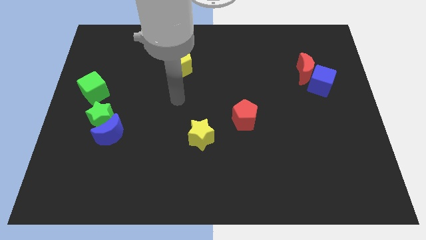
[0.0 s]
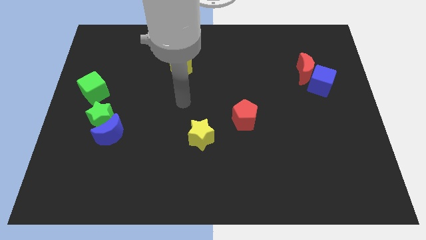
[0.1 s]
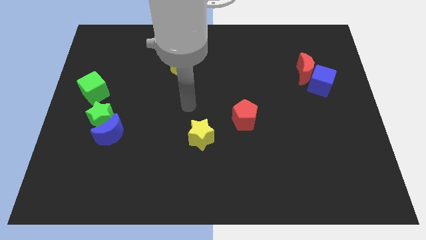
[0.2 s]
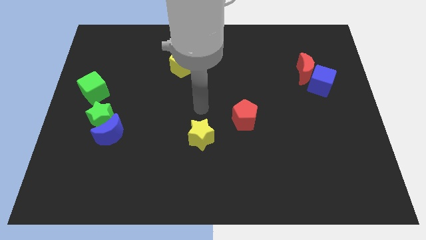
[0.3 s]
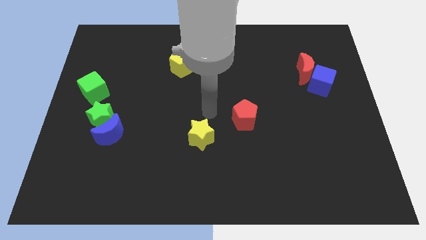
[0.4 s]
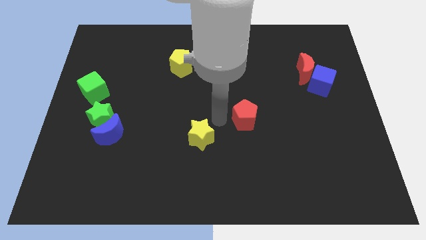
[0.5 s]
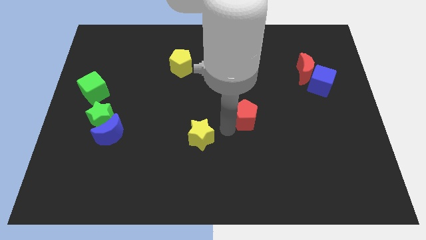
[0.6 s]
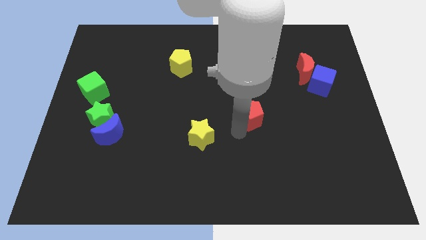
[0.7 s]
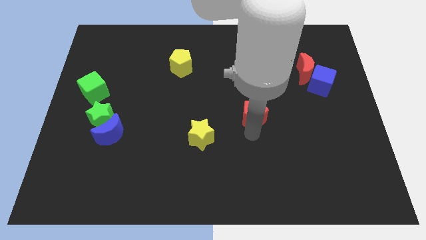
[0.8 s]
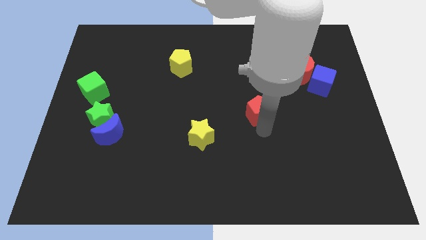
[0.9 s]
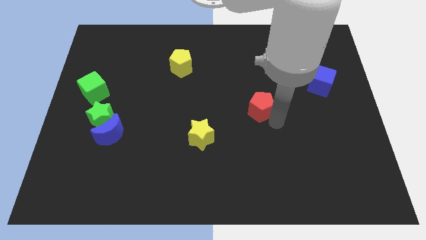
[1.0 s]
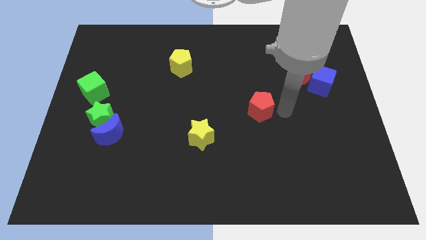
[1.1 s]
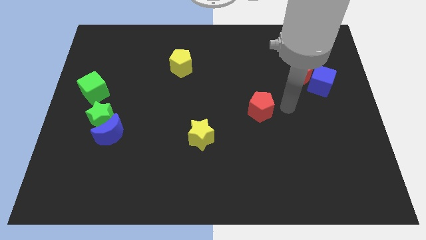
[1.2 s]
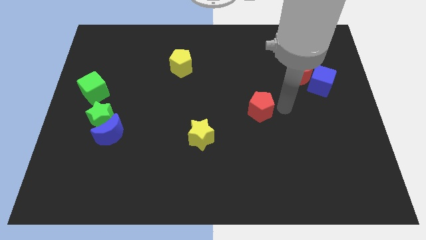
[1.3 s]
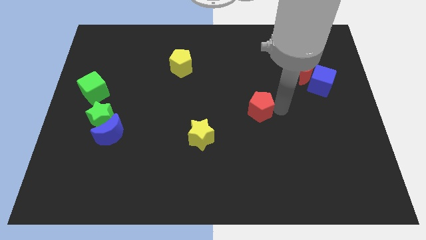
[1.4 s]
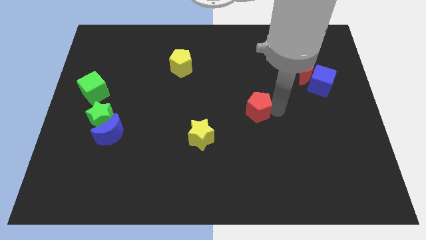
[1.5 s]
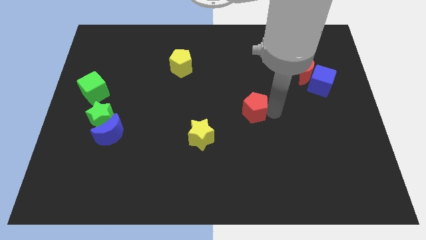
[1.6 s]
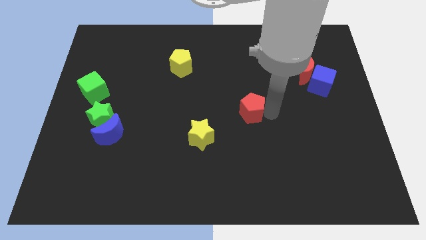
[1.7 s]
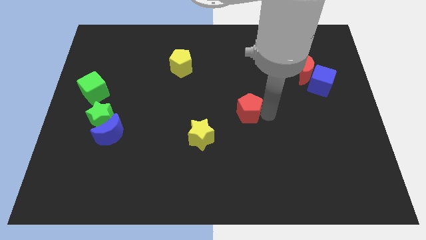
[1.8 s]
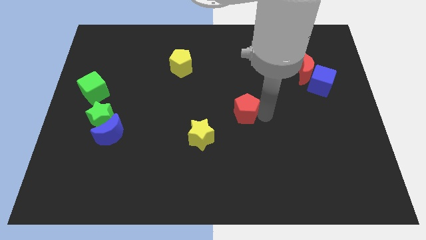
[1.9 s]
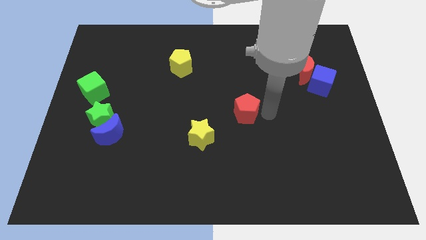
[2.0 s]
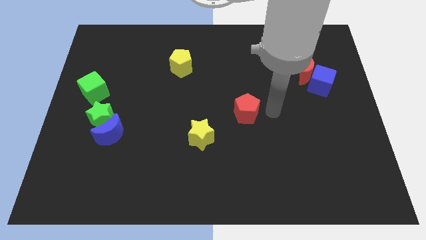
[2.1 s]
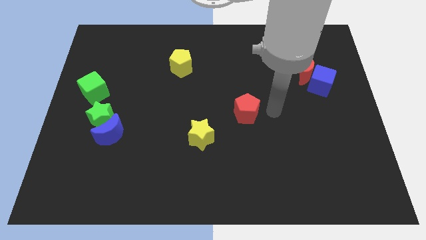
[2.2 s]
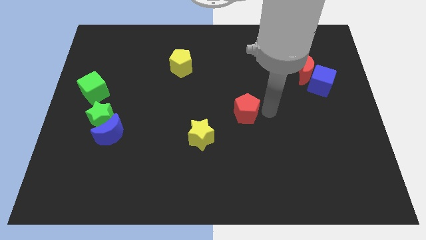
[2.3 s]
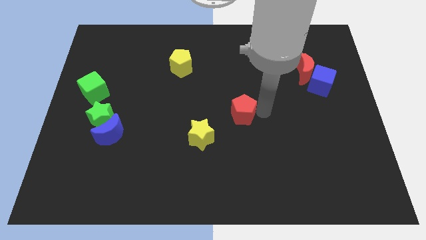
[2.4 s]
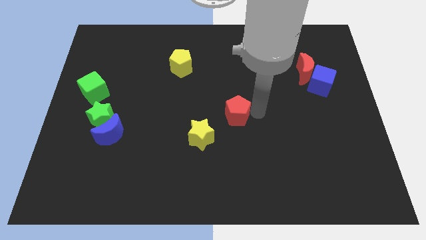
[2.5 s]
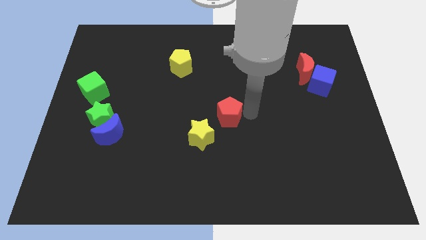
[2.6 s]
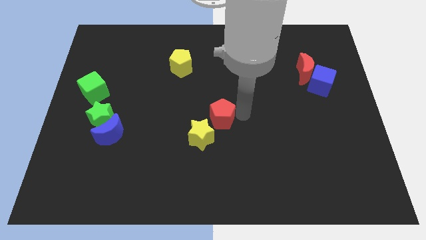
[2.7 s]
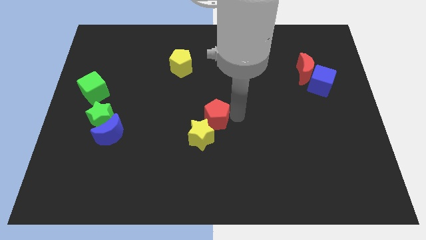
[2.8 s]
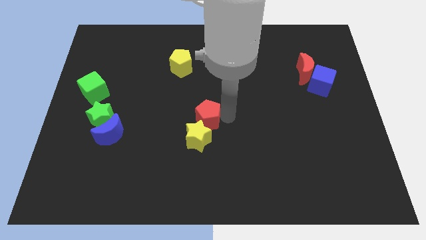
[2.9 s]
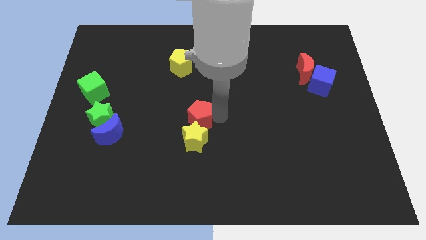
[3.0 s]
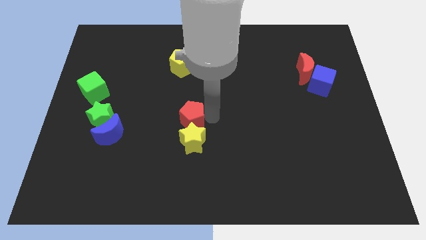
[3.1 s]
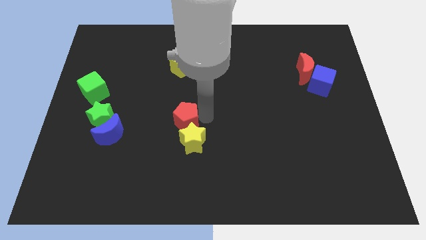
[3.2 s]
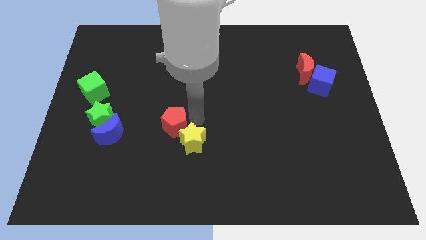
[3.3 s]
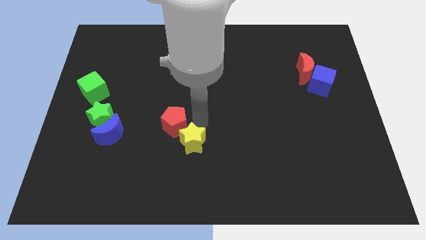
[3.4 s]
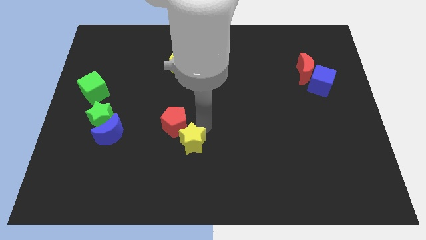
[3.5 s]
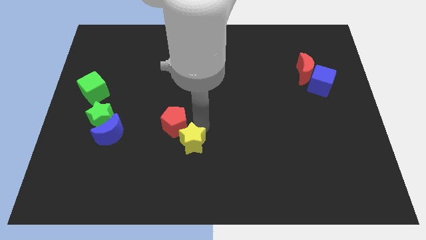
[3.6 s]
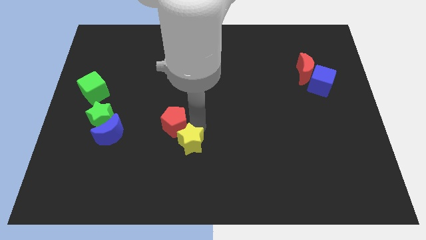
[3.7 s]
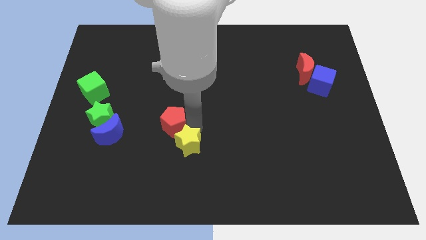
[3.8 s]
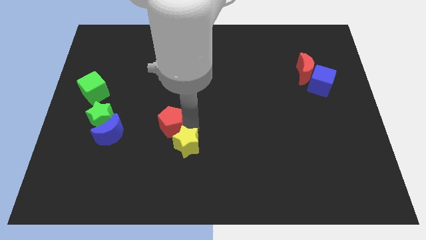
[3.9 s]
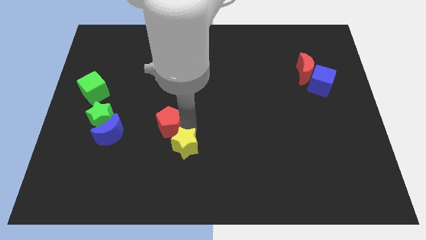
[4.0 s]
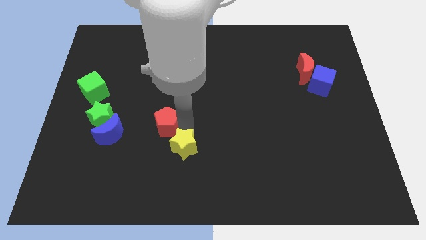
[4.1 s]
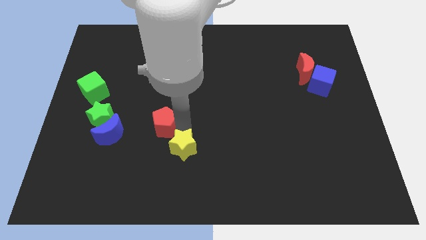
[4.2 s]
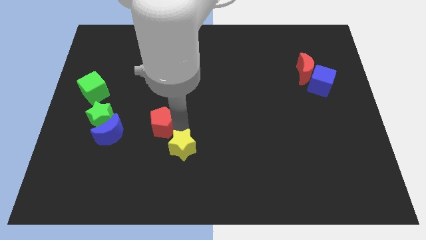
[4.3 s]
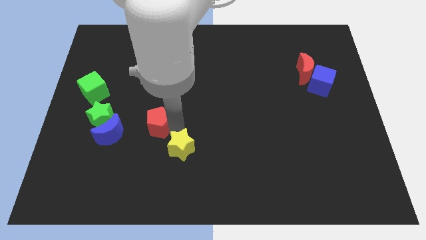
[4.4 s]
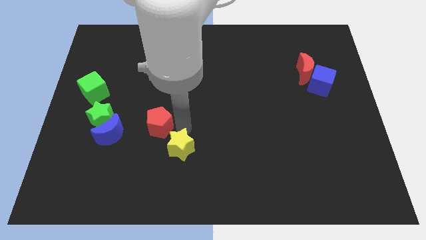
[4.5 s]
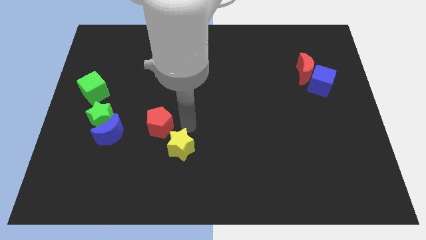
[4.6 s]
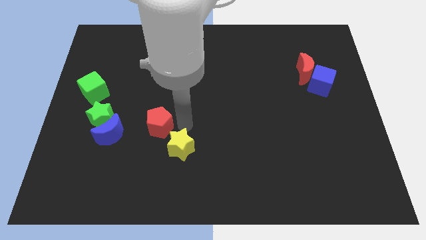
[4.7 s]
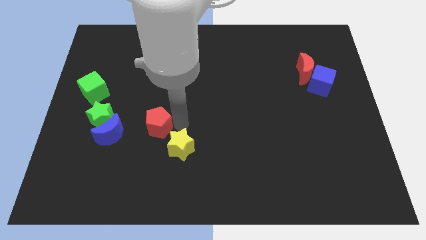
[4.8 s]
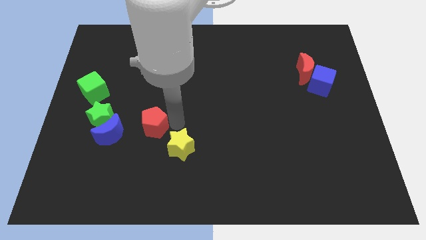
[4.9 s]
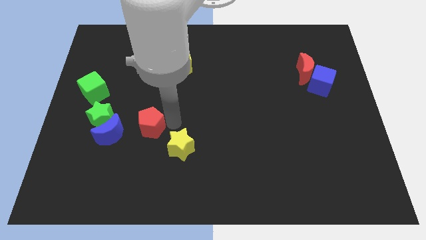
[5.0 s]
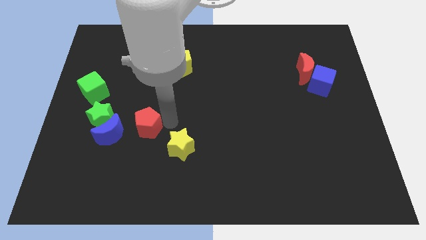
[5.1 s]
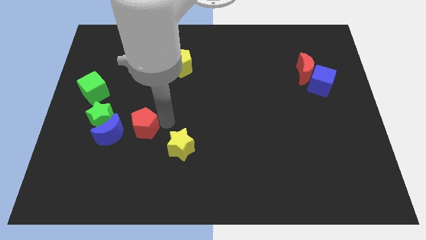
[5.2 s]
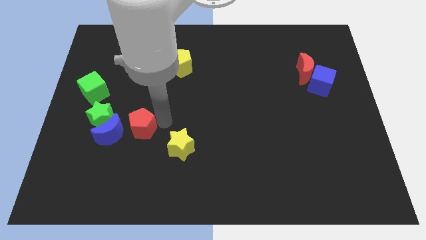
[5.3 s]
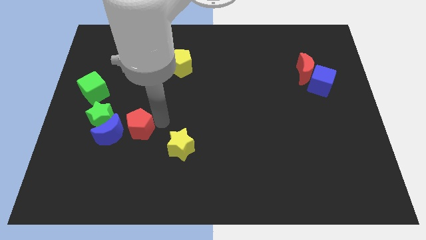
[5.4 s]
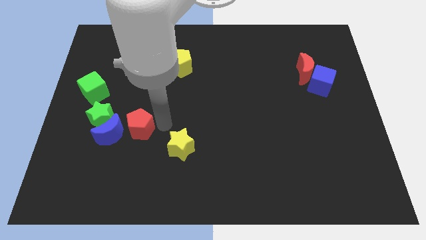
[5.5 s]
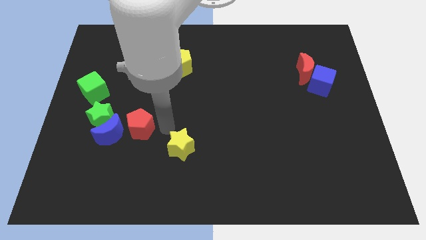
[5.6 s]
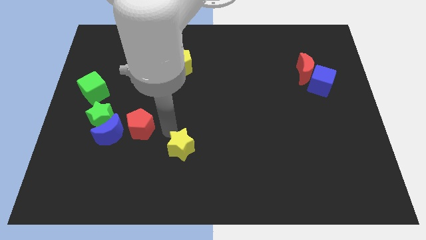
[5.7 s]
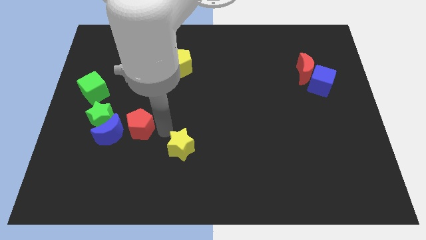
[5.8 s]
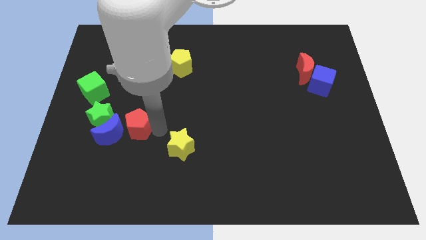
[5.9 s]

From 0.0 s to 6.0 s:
slide the red pentagon to the blue moon

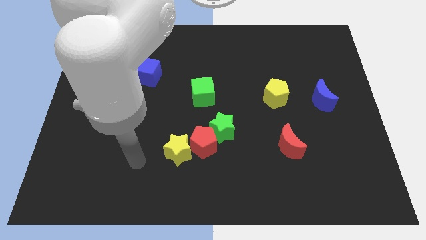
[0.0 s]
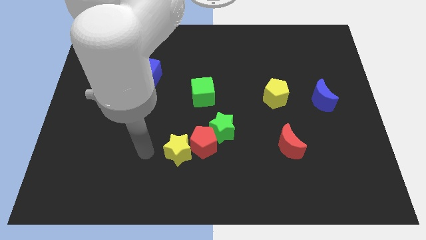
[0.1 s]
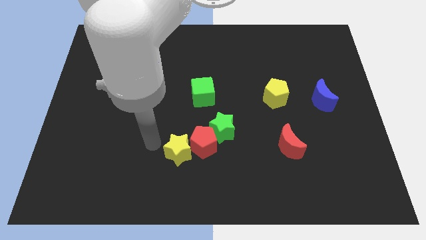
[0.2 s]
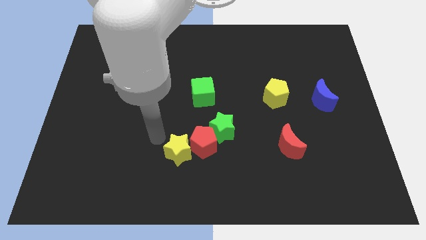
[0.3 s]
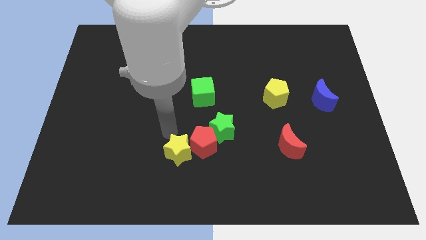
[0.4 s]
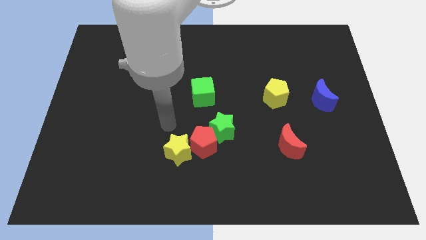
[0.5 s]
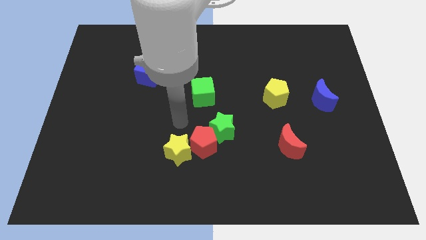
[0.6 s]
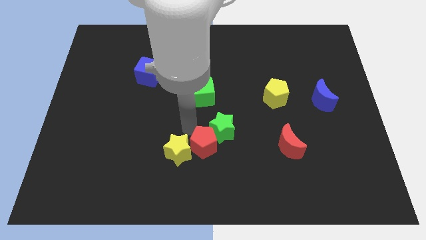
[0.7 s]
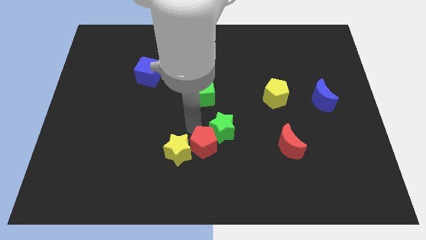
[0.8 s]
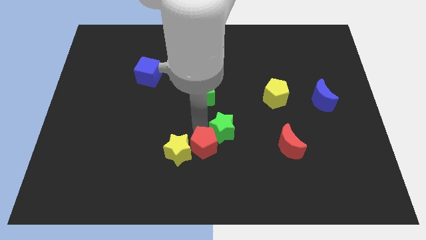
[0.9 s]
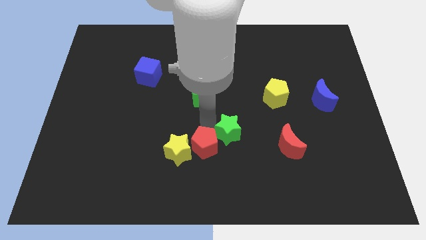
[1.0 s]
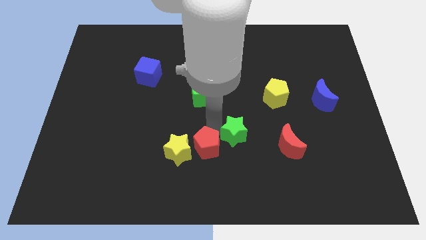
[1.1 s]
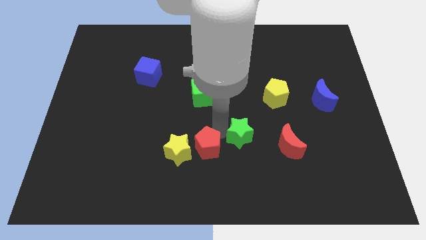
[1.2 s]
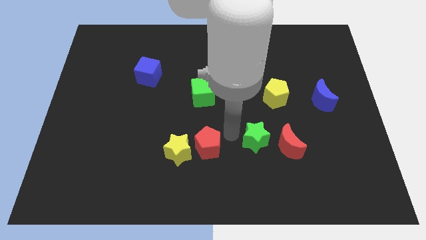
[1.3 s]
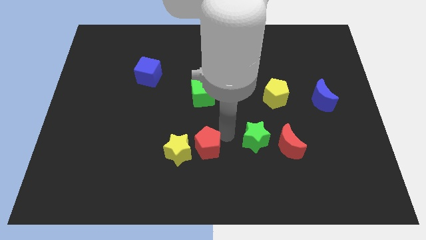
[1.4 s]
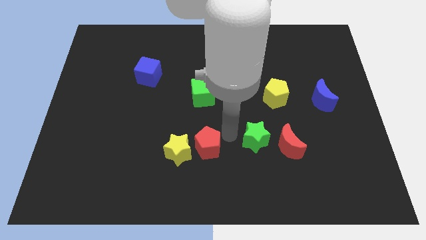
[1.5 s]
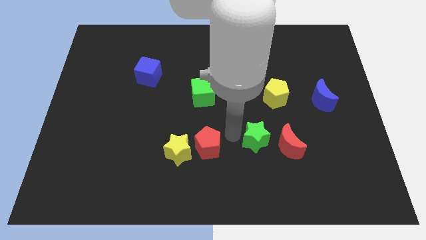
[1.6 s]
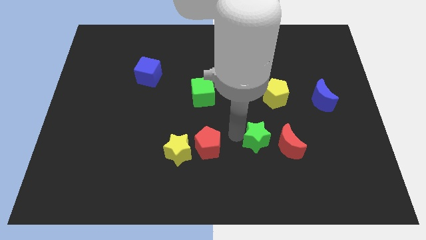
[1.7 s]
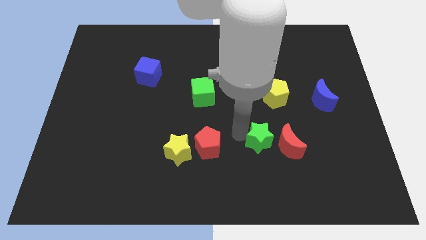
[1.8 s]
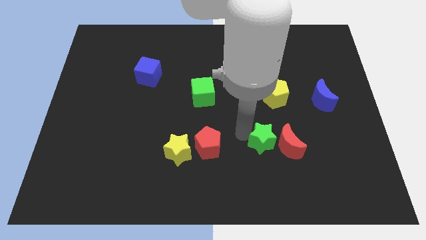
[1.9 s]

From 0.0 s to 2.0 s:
push the green star next to the red moon
